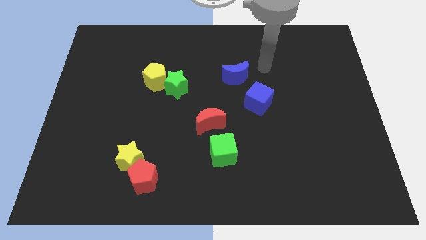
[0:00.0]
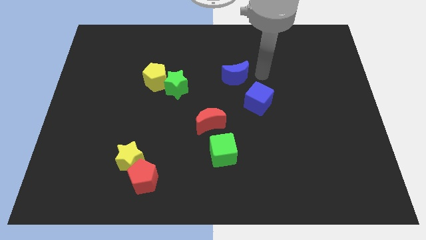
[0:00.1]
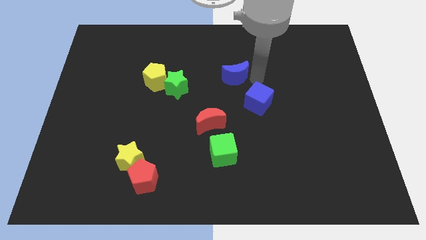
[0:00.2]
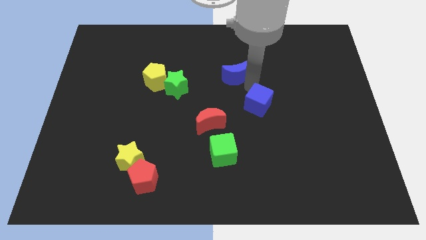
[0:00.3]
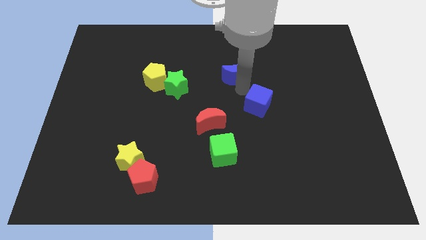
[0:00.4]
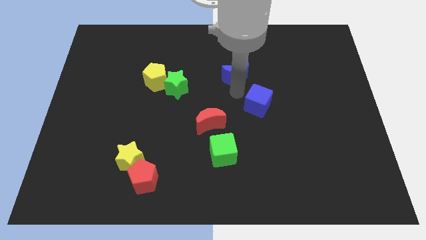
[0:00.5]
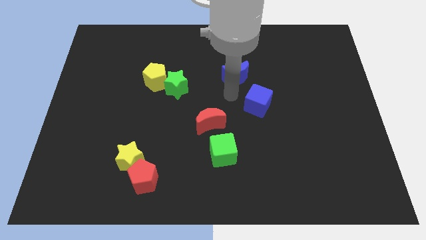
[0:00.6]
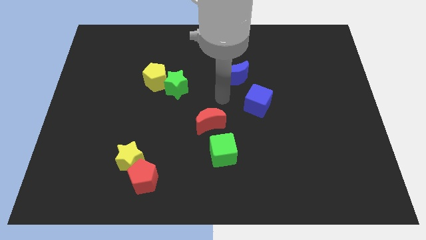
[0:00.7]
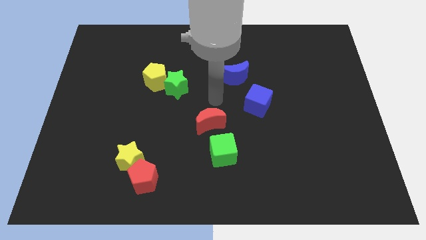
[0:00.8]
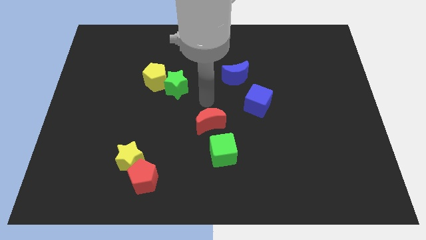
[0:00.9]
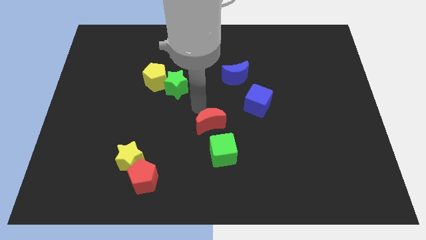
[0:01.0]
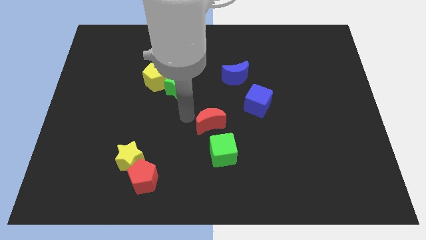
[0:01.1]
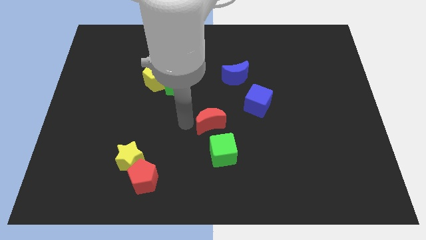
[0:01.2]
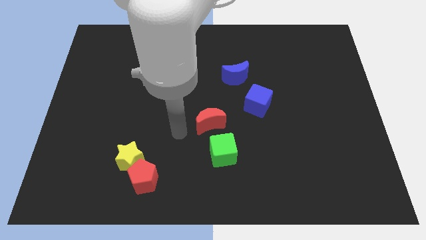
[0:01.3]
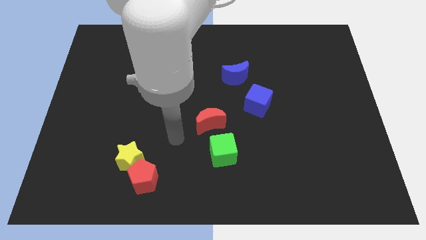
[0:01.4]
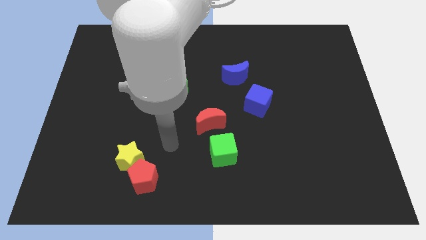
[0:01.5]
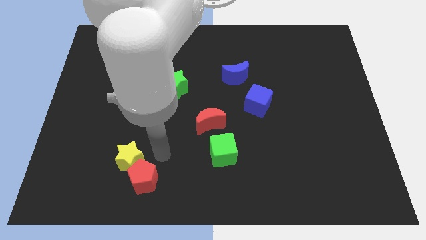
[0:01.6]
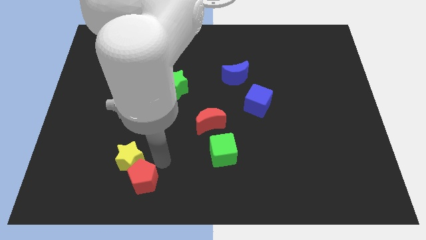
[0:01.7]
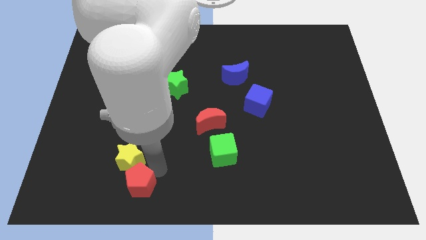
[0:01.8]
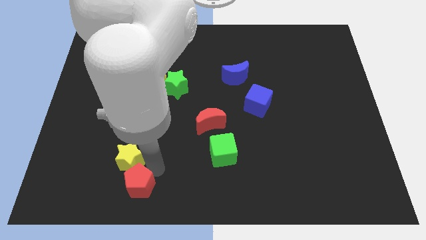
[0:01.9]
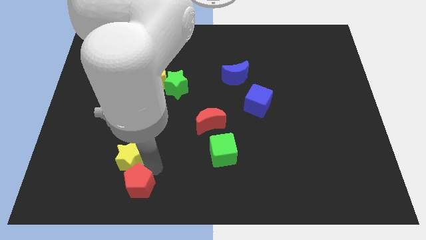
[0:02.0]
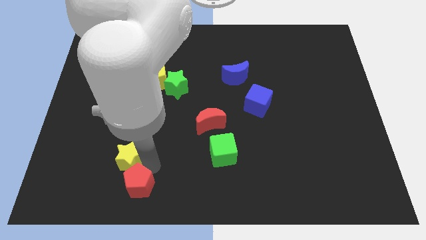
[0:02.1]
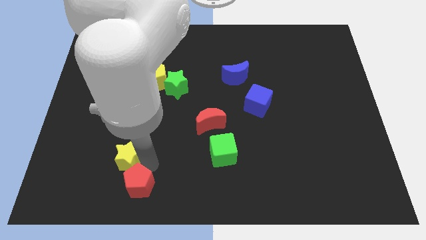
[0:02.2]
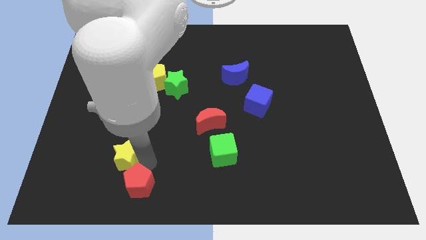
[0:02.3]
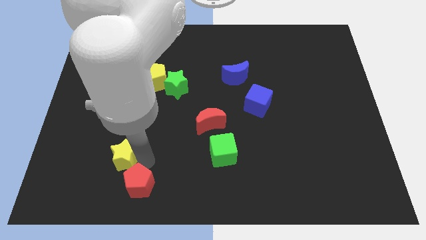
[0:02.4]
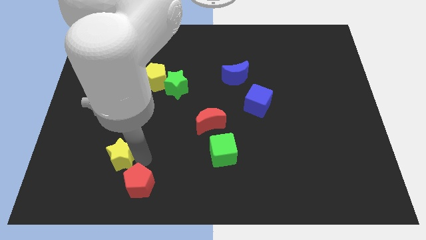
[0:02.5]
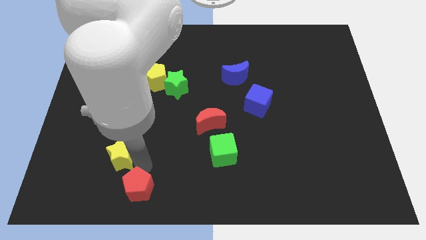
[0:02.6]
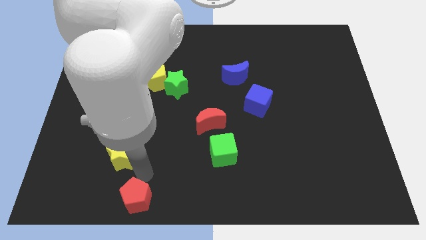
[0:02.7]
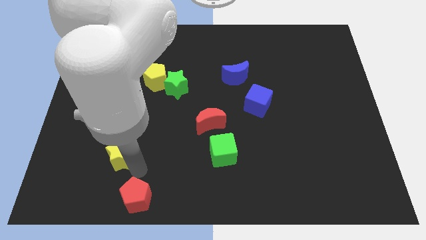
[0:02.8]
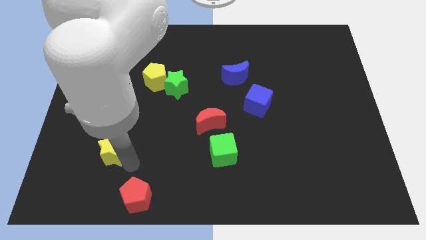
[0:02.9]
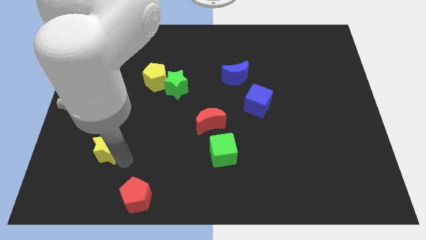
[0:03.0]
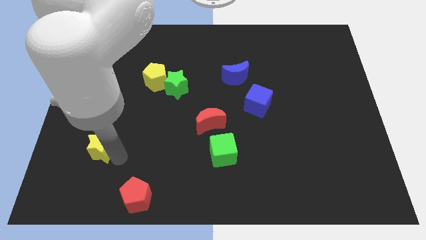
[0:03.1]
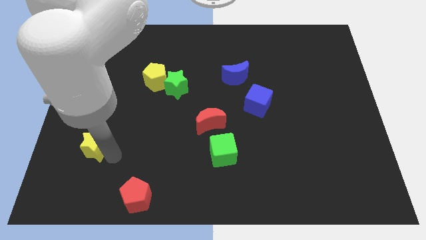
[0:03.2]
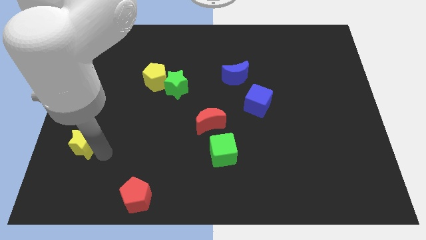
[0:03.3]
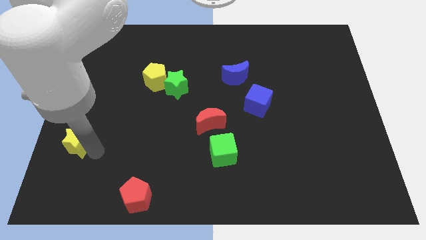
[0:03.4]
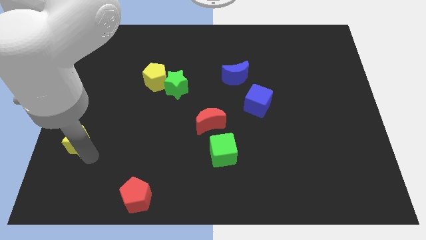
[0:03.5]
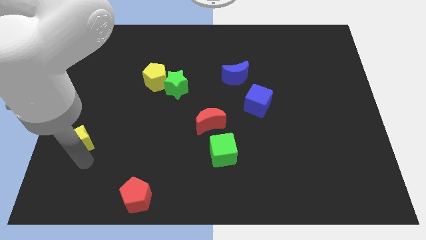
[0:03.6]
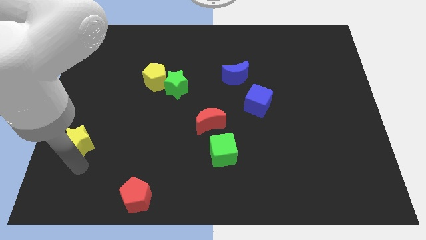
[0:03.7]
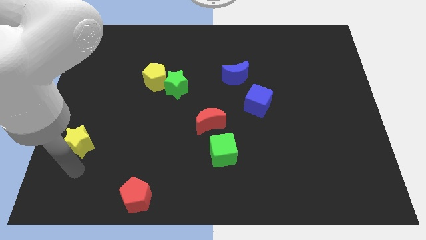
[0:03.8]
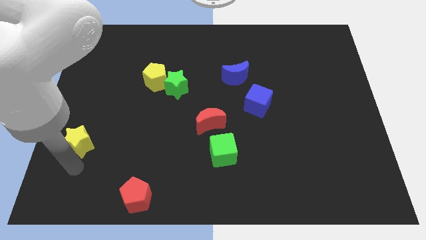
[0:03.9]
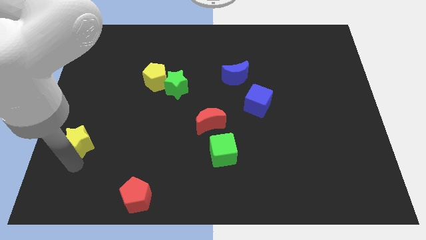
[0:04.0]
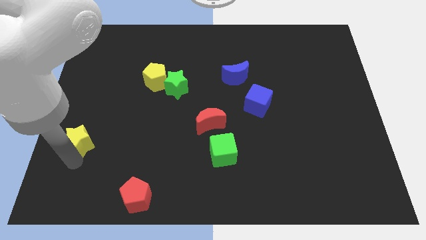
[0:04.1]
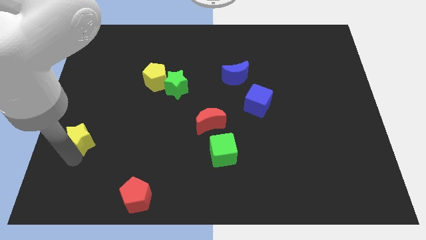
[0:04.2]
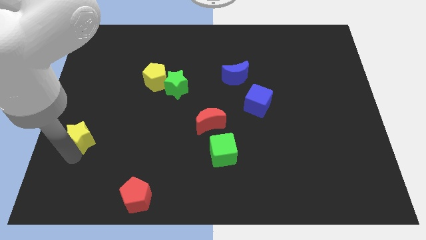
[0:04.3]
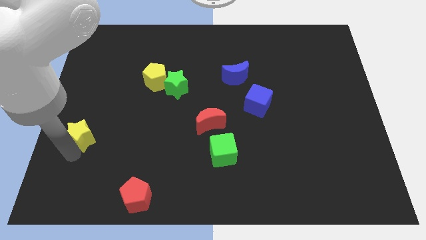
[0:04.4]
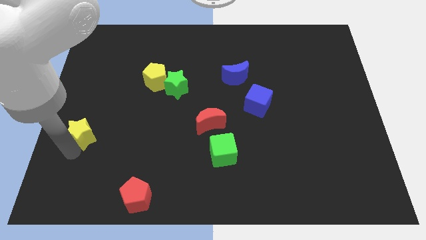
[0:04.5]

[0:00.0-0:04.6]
push the yellow star to the center left

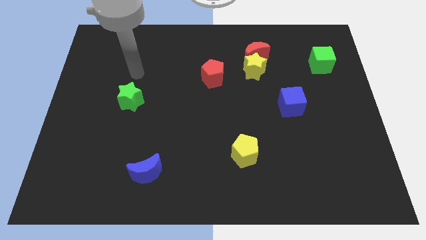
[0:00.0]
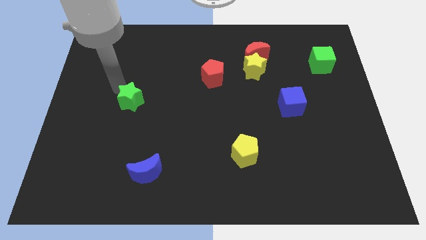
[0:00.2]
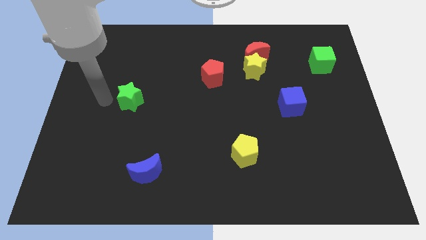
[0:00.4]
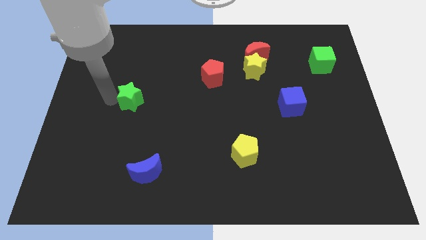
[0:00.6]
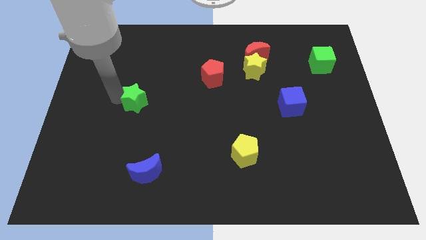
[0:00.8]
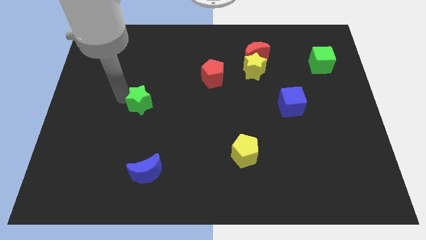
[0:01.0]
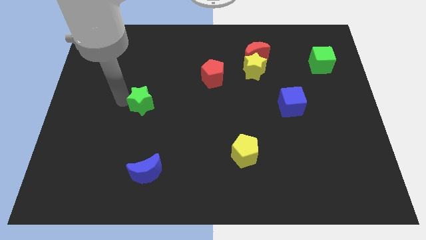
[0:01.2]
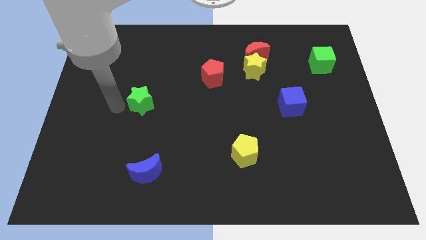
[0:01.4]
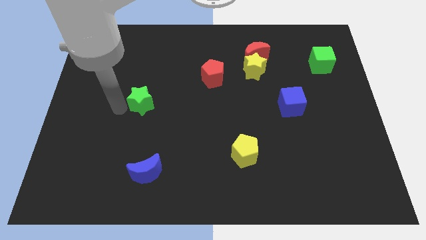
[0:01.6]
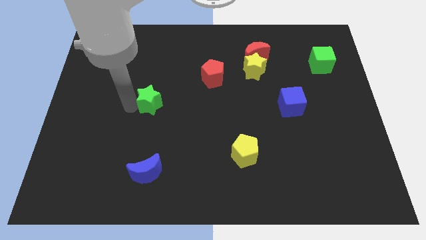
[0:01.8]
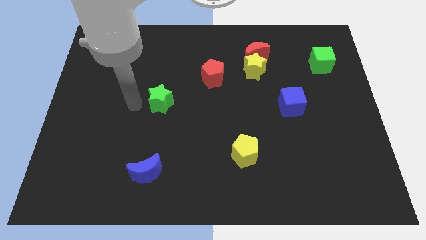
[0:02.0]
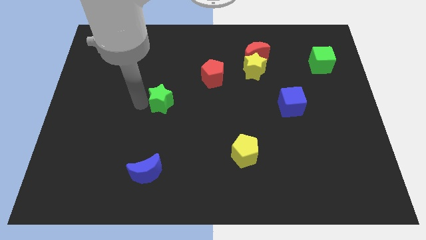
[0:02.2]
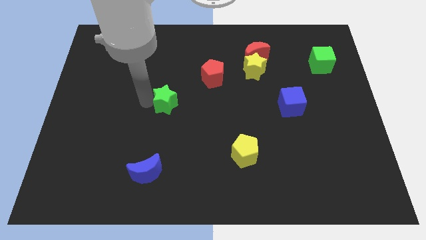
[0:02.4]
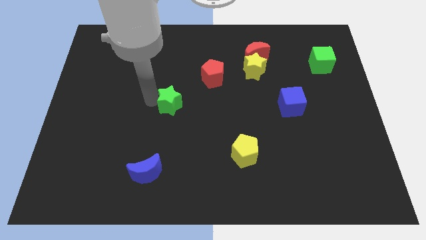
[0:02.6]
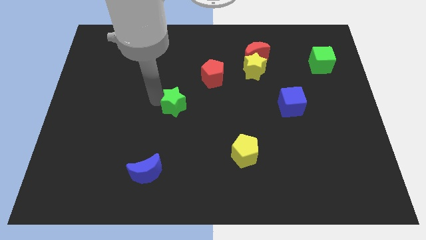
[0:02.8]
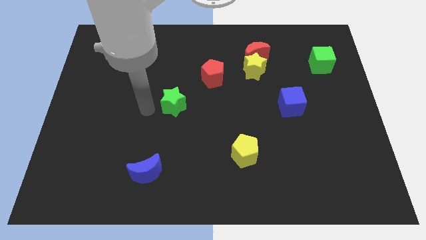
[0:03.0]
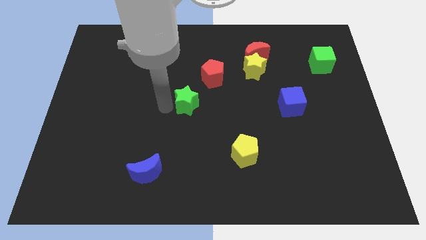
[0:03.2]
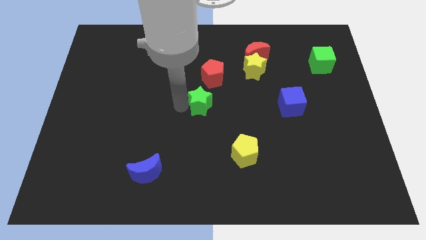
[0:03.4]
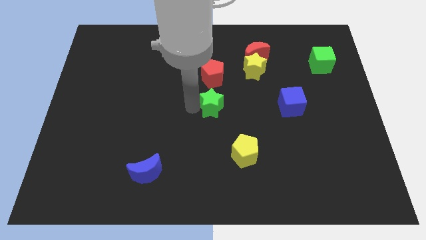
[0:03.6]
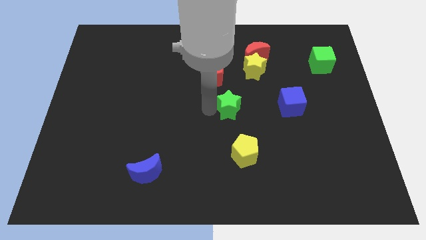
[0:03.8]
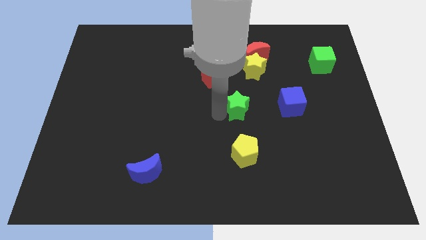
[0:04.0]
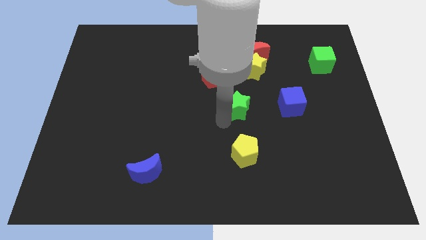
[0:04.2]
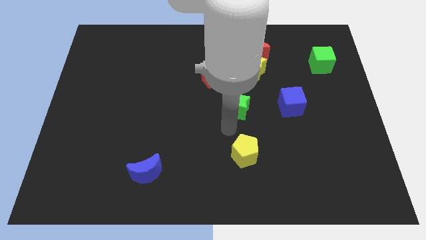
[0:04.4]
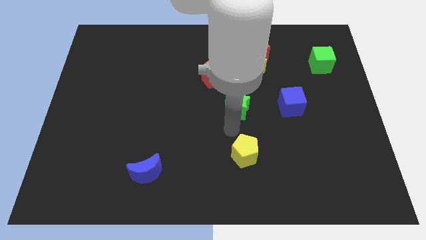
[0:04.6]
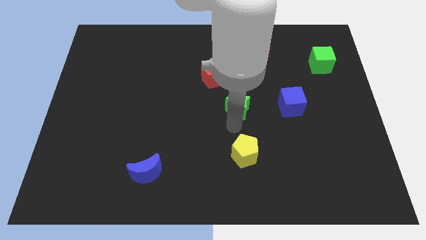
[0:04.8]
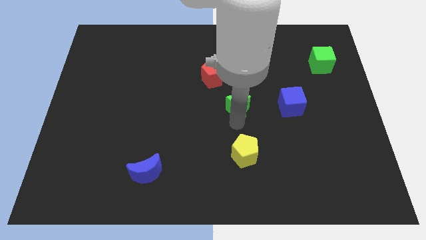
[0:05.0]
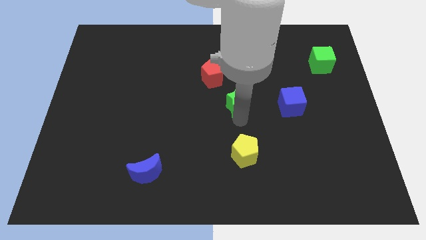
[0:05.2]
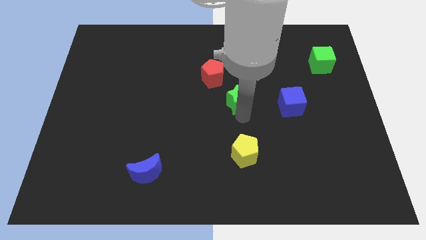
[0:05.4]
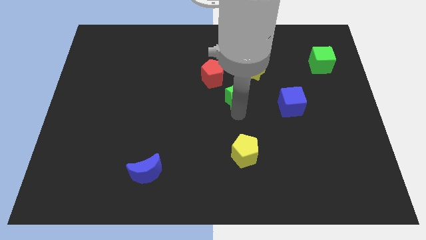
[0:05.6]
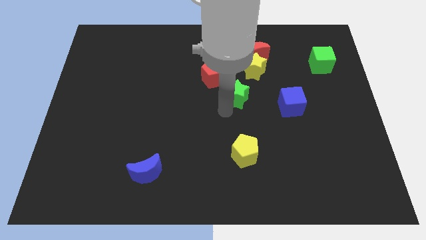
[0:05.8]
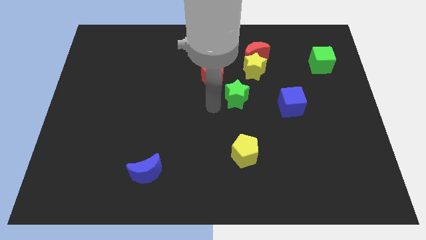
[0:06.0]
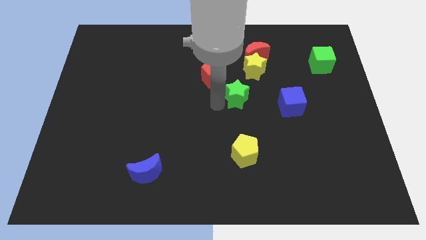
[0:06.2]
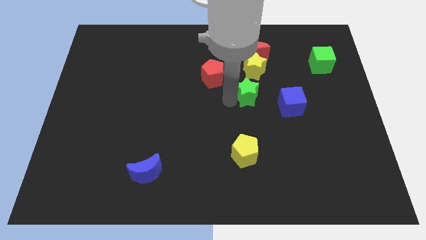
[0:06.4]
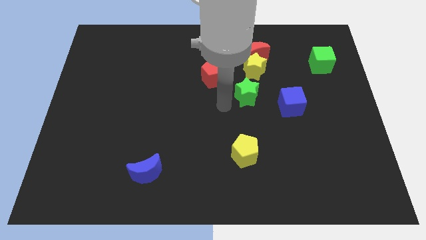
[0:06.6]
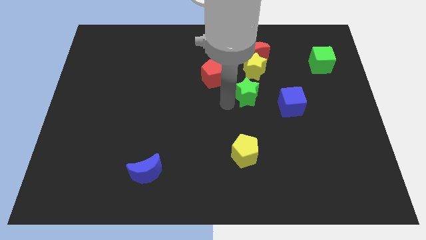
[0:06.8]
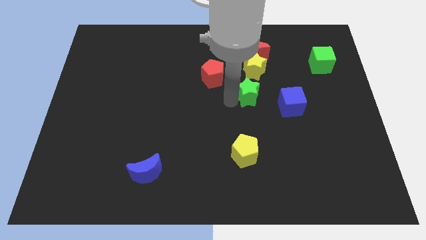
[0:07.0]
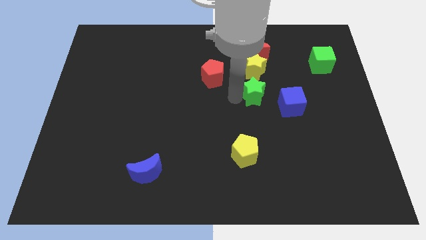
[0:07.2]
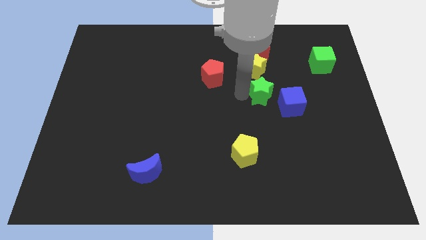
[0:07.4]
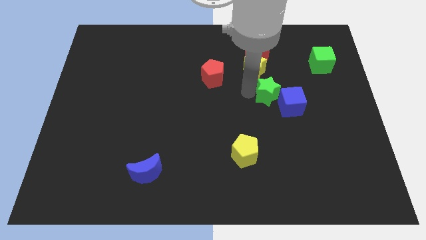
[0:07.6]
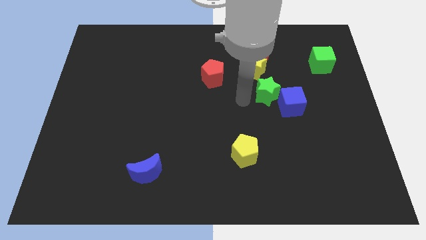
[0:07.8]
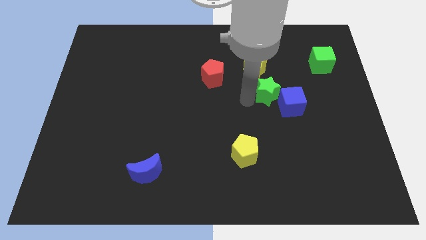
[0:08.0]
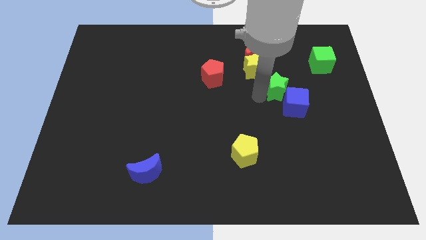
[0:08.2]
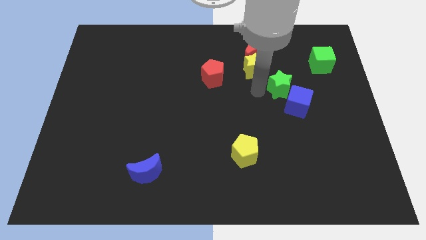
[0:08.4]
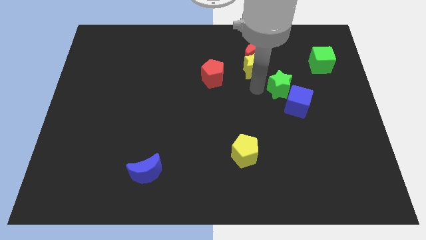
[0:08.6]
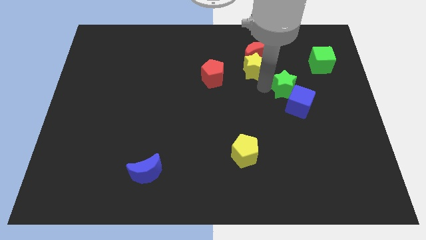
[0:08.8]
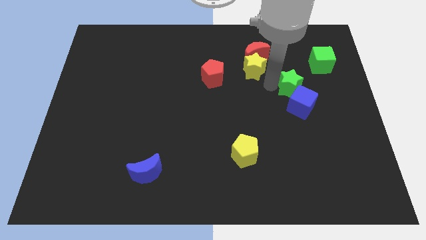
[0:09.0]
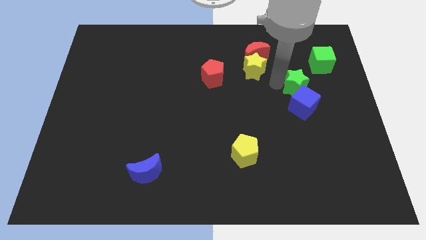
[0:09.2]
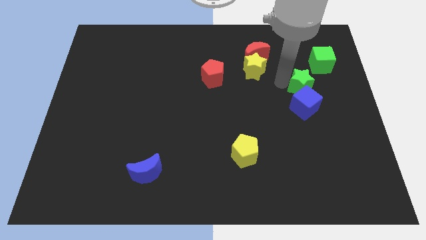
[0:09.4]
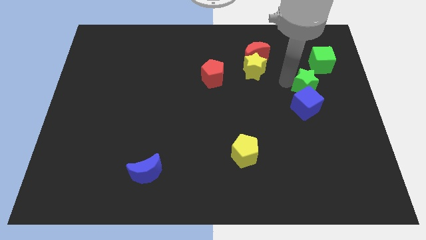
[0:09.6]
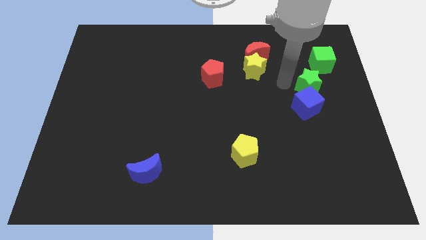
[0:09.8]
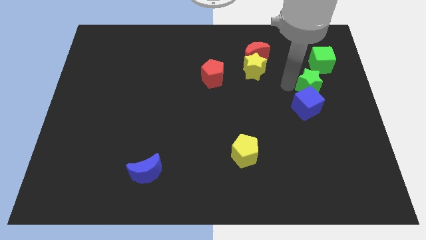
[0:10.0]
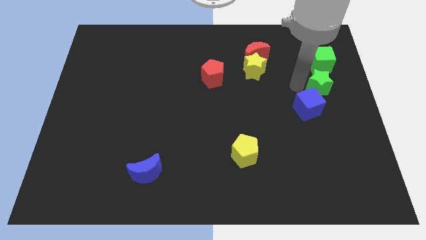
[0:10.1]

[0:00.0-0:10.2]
move the green star to the right side
